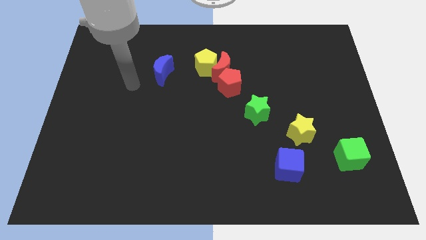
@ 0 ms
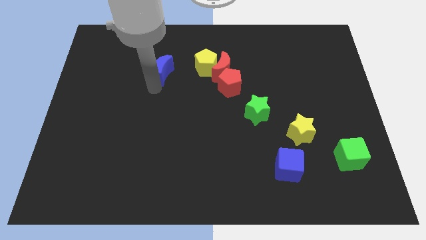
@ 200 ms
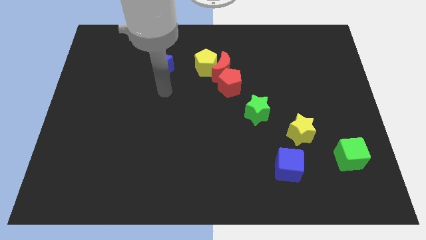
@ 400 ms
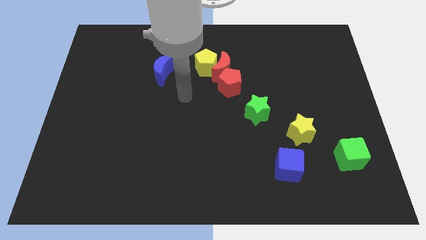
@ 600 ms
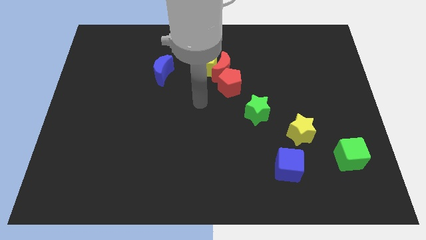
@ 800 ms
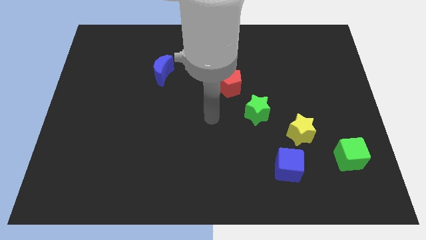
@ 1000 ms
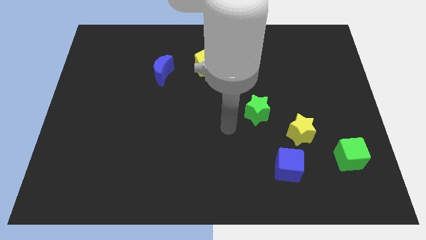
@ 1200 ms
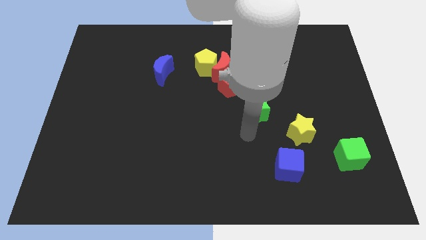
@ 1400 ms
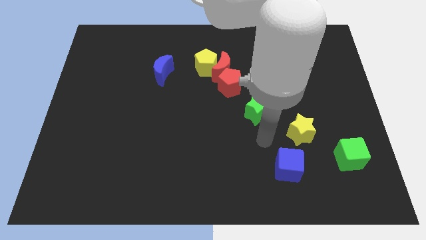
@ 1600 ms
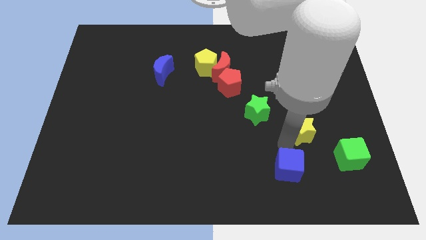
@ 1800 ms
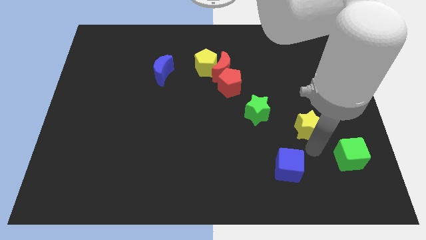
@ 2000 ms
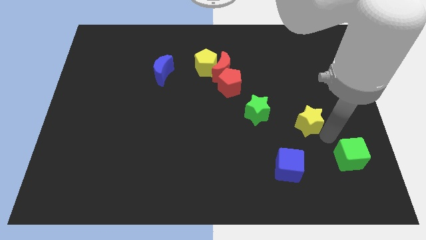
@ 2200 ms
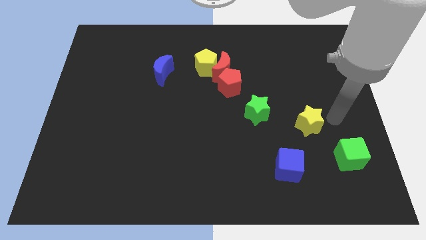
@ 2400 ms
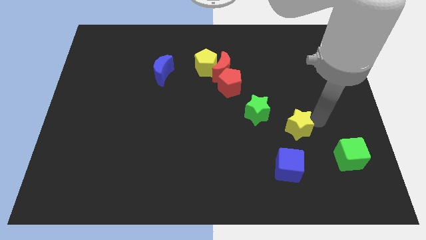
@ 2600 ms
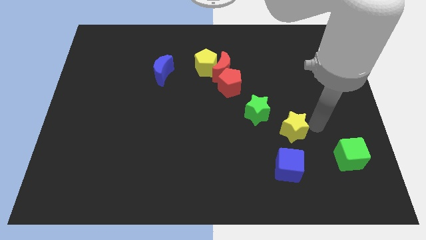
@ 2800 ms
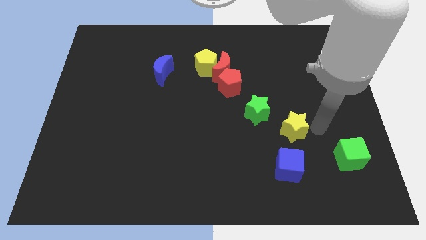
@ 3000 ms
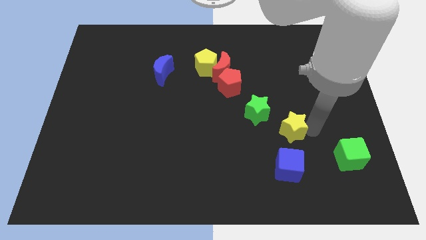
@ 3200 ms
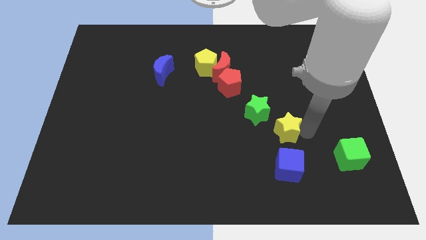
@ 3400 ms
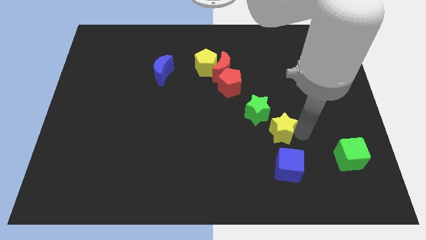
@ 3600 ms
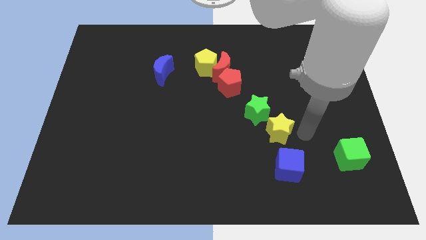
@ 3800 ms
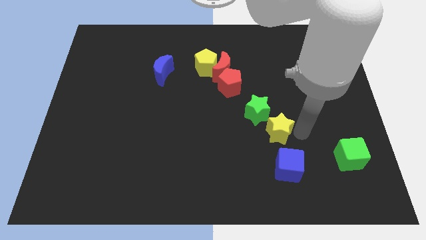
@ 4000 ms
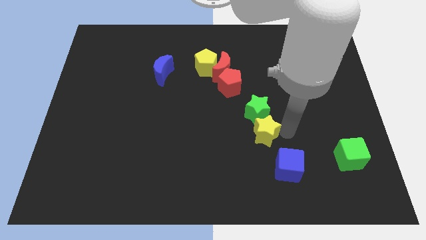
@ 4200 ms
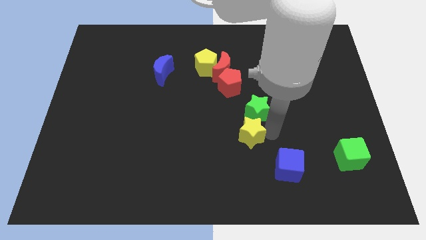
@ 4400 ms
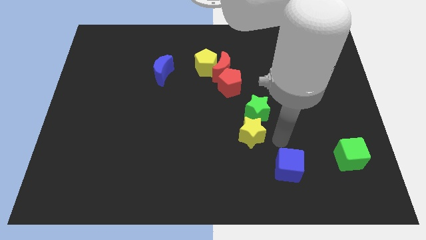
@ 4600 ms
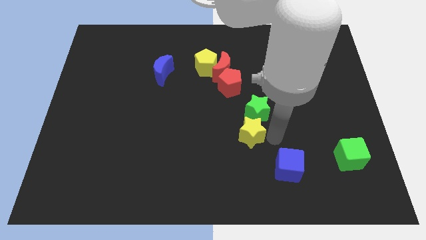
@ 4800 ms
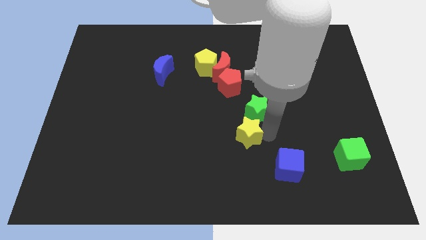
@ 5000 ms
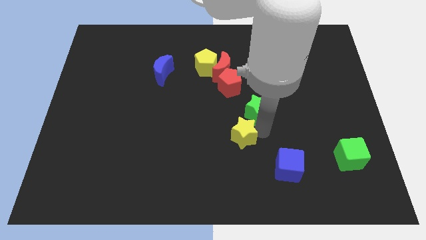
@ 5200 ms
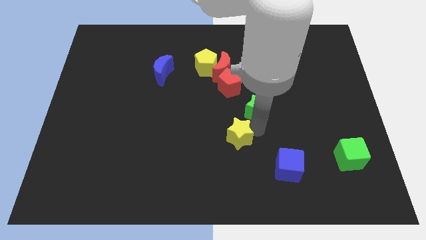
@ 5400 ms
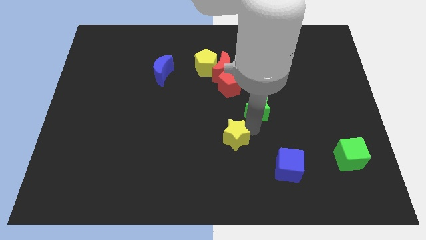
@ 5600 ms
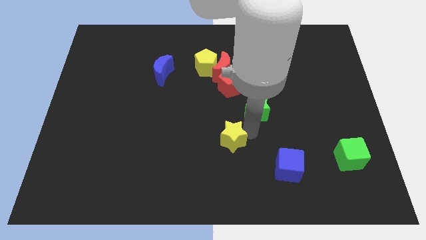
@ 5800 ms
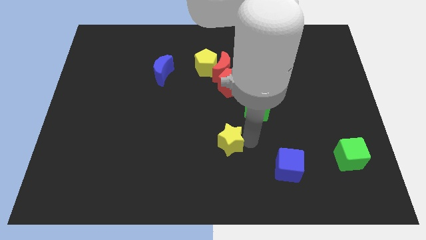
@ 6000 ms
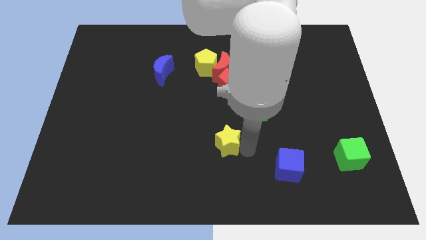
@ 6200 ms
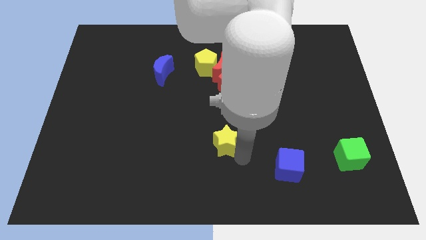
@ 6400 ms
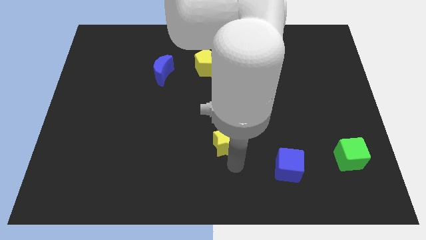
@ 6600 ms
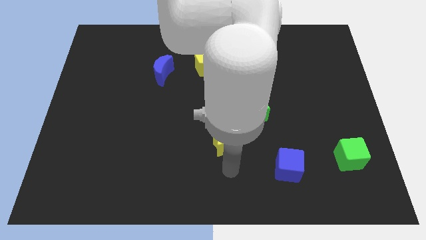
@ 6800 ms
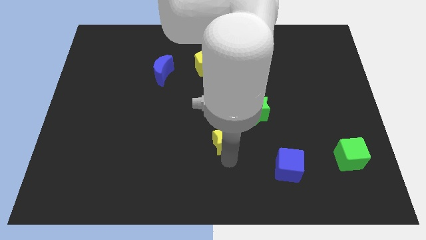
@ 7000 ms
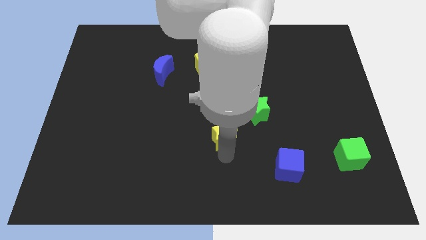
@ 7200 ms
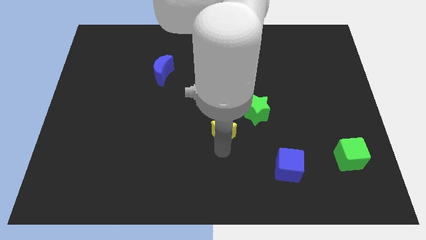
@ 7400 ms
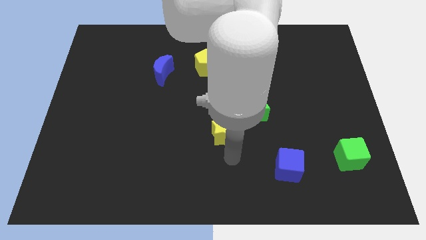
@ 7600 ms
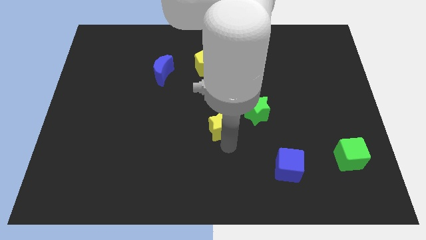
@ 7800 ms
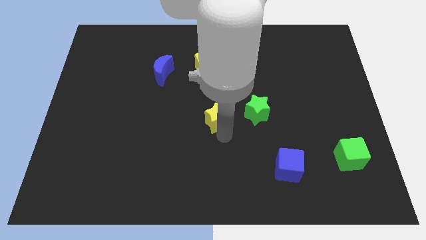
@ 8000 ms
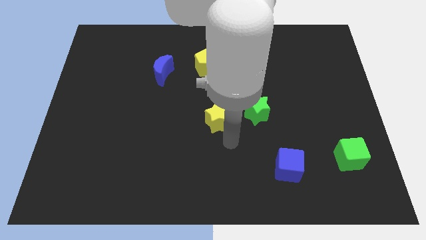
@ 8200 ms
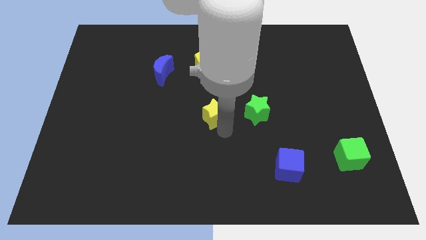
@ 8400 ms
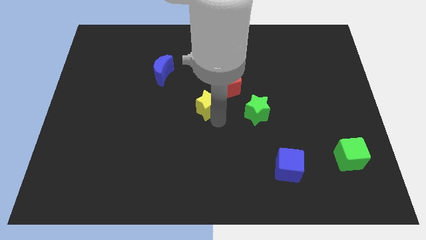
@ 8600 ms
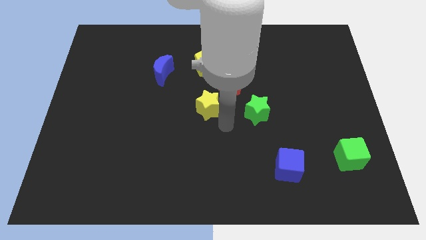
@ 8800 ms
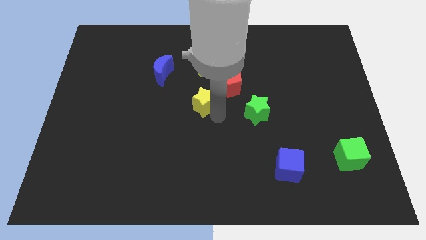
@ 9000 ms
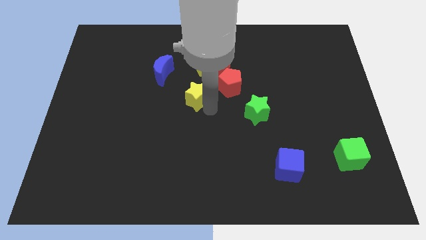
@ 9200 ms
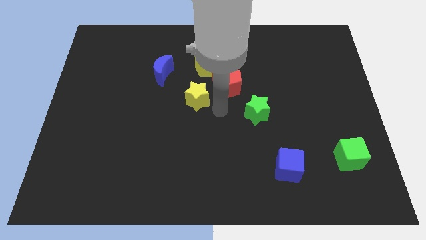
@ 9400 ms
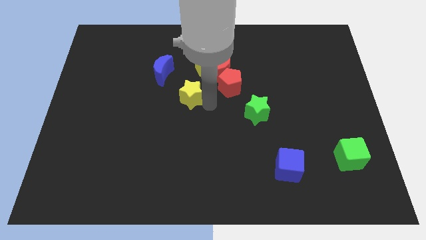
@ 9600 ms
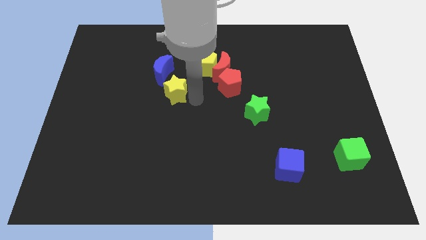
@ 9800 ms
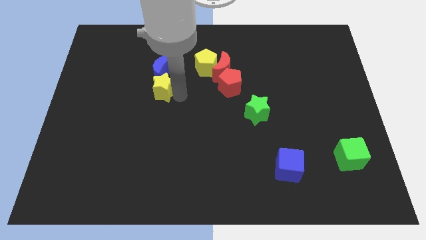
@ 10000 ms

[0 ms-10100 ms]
push the yellow star to the blue moon

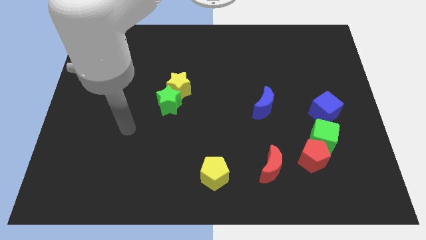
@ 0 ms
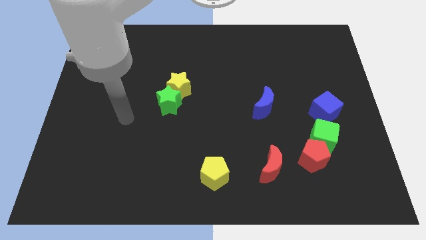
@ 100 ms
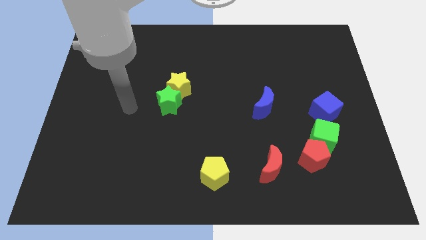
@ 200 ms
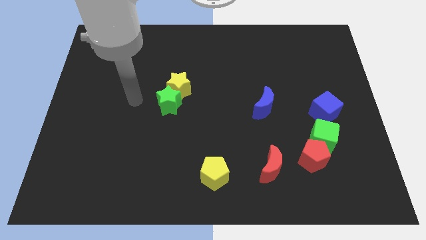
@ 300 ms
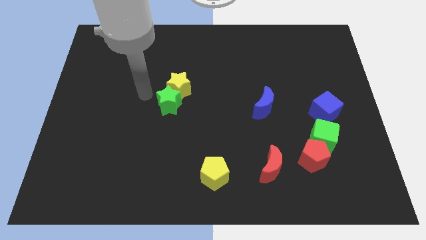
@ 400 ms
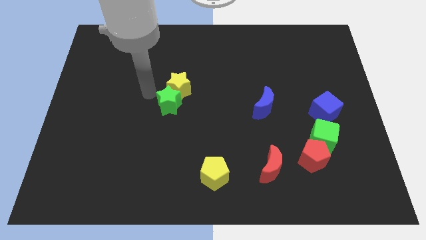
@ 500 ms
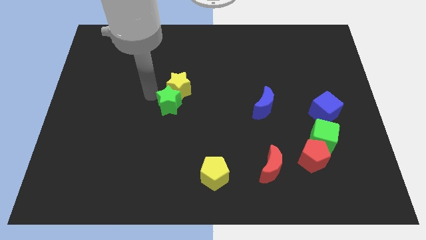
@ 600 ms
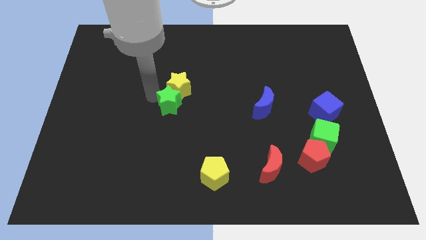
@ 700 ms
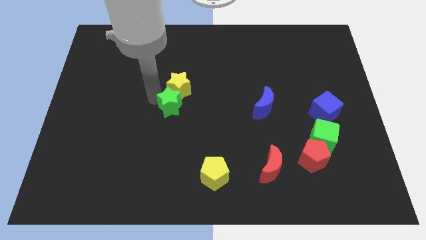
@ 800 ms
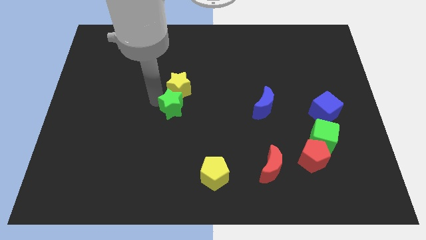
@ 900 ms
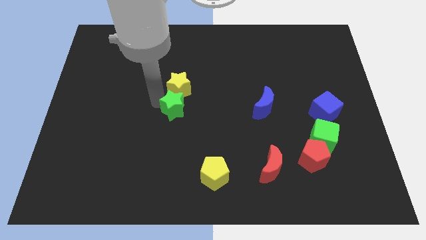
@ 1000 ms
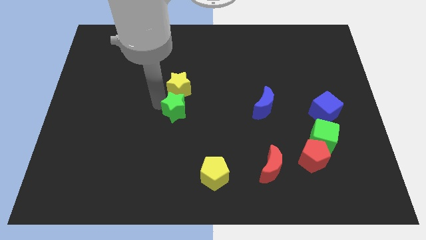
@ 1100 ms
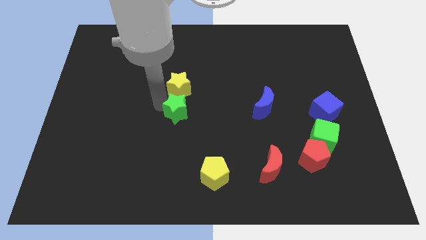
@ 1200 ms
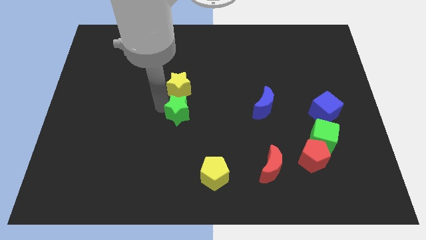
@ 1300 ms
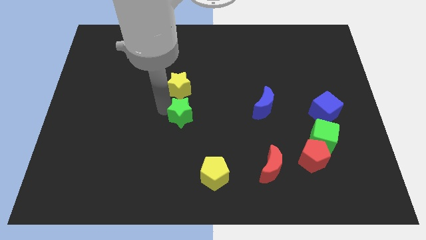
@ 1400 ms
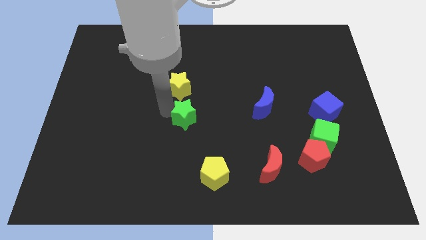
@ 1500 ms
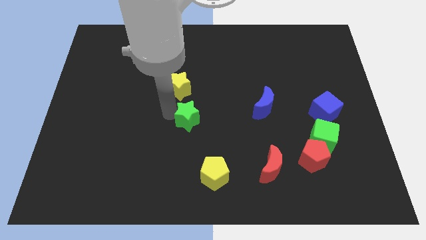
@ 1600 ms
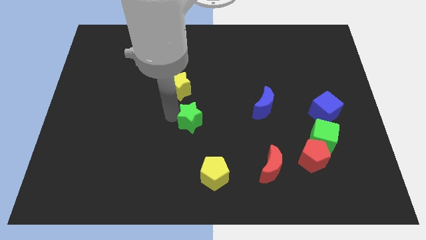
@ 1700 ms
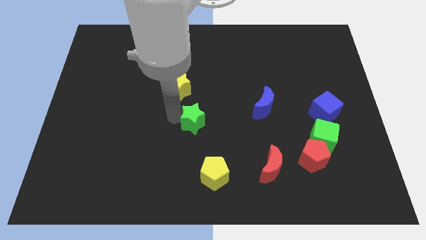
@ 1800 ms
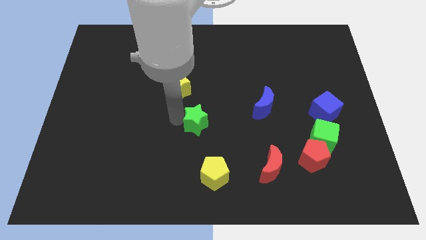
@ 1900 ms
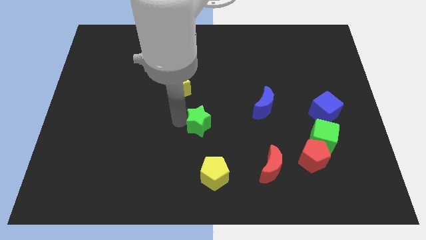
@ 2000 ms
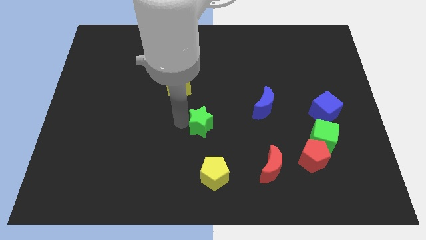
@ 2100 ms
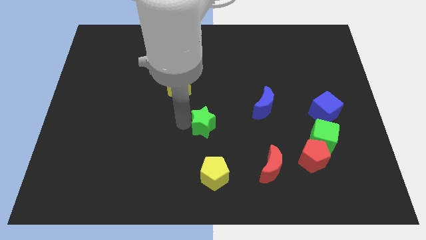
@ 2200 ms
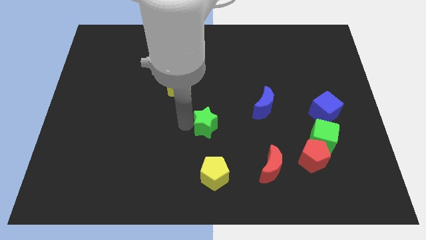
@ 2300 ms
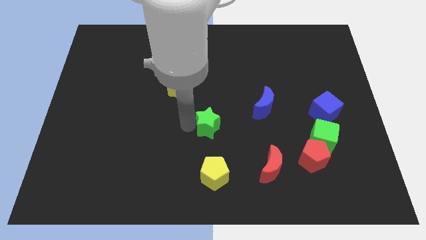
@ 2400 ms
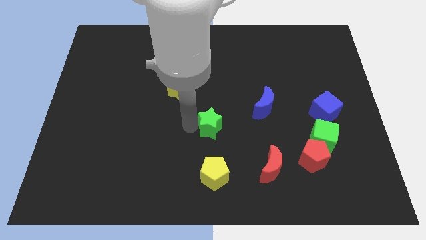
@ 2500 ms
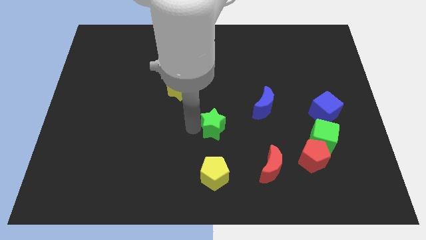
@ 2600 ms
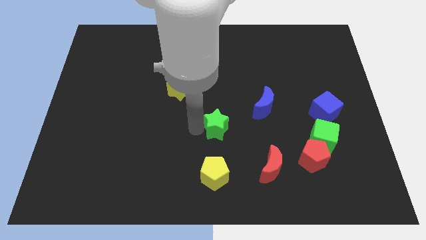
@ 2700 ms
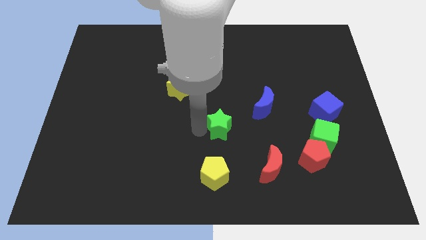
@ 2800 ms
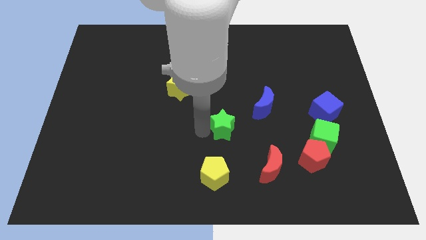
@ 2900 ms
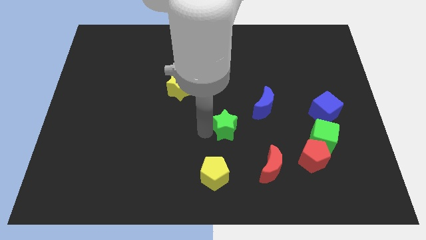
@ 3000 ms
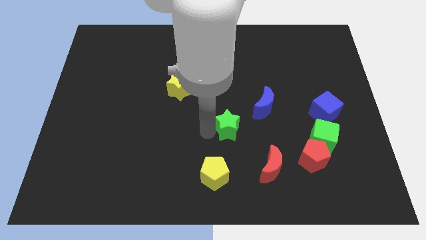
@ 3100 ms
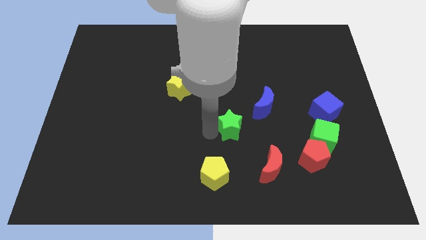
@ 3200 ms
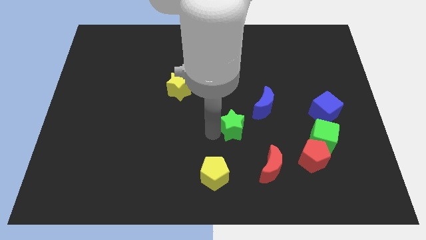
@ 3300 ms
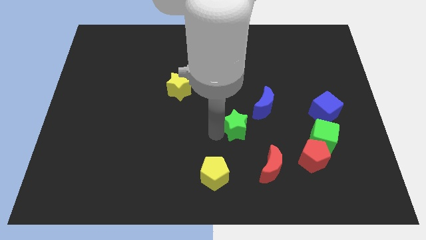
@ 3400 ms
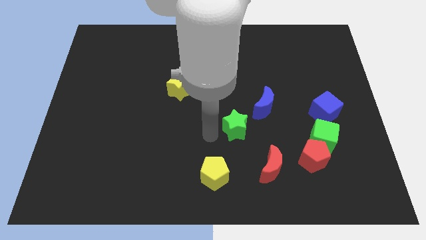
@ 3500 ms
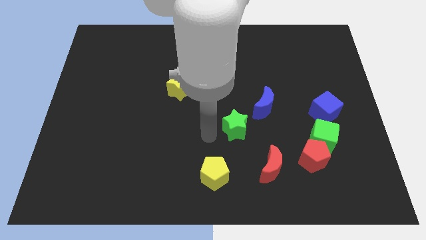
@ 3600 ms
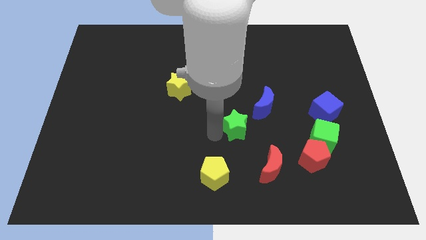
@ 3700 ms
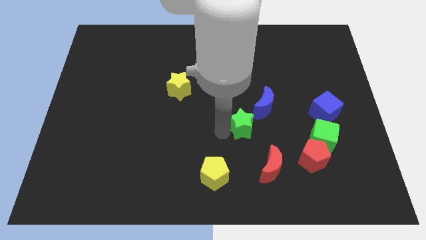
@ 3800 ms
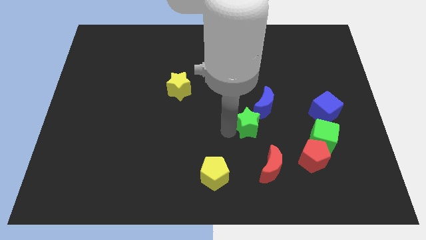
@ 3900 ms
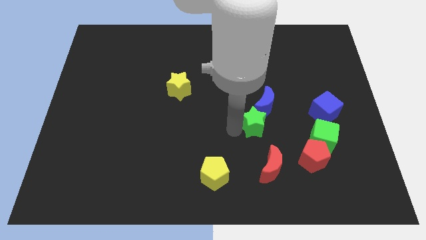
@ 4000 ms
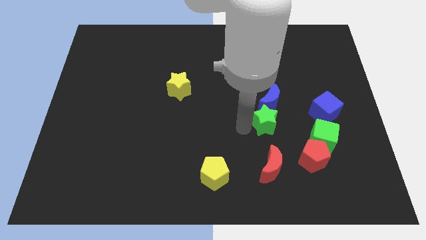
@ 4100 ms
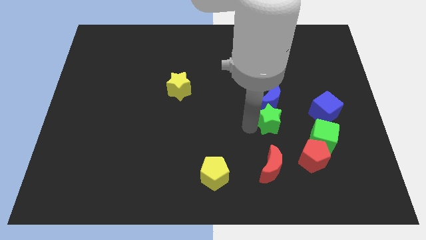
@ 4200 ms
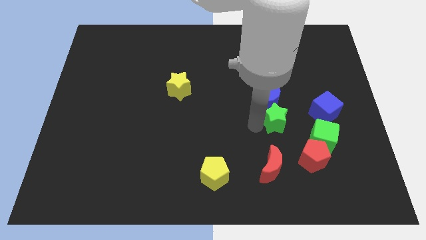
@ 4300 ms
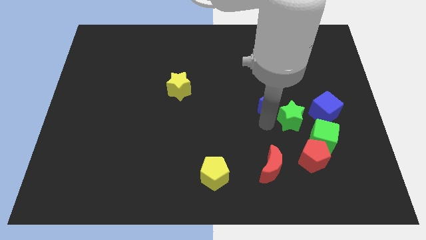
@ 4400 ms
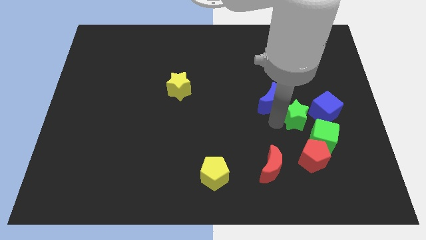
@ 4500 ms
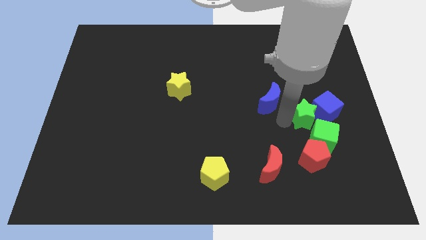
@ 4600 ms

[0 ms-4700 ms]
push the green star to the blue cube
